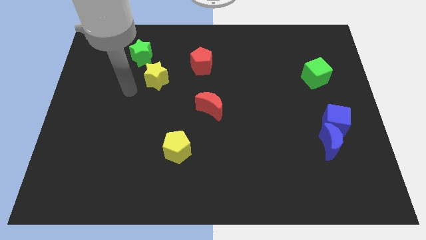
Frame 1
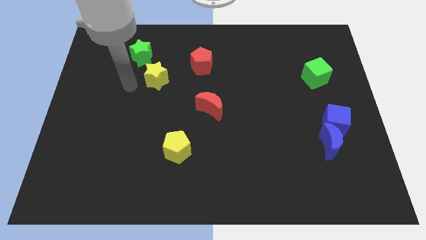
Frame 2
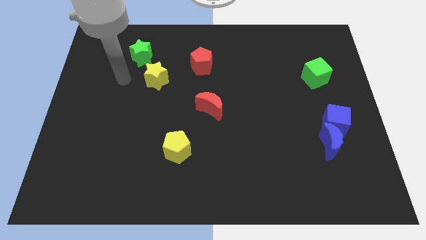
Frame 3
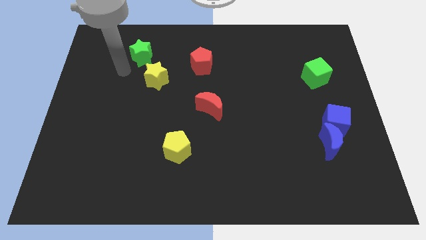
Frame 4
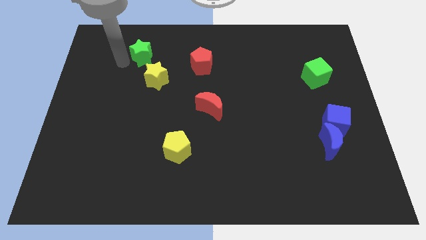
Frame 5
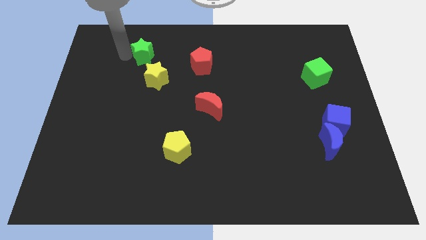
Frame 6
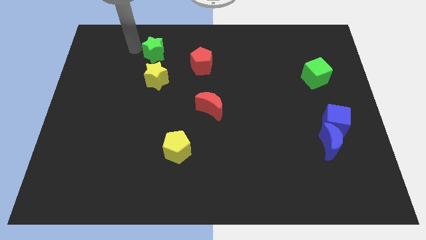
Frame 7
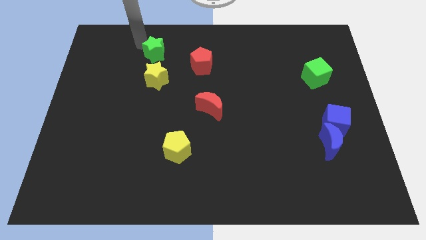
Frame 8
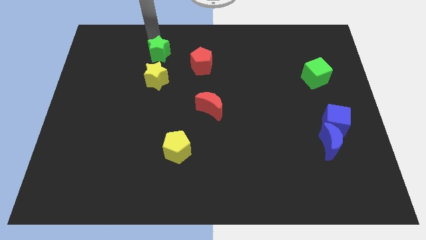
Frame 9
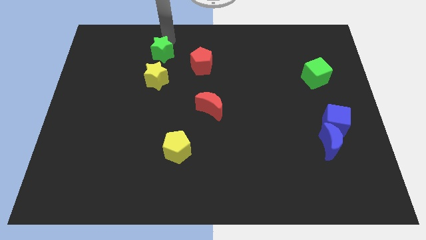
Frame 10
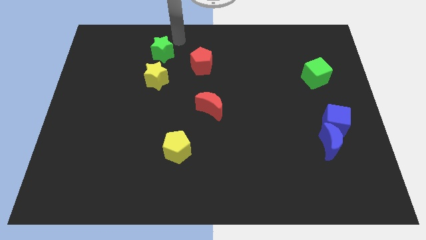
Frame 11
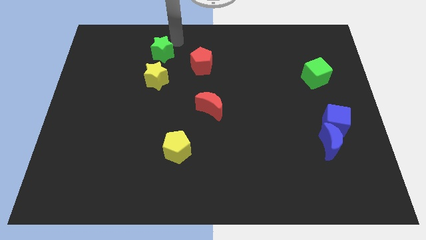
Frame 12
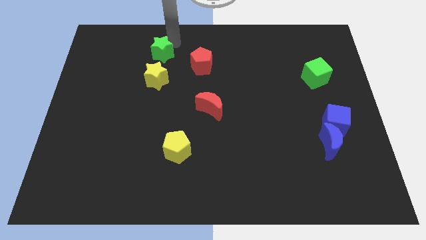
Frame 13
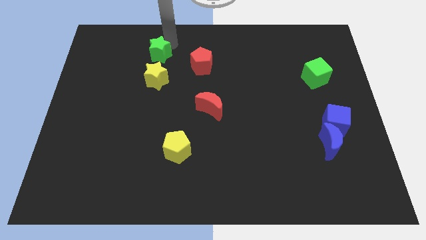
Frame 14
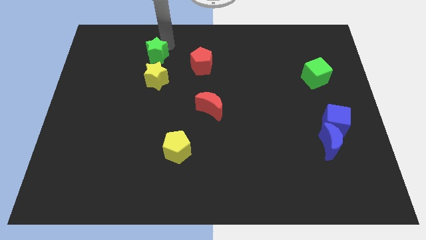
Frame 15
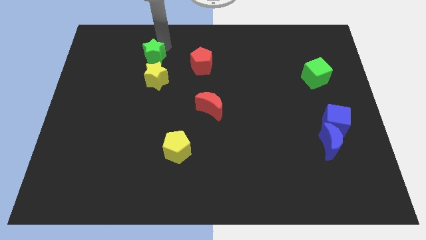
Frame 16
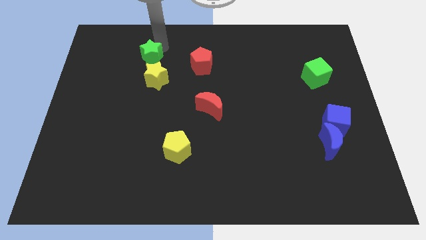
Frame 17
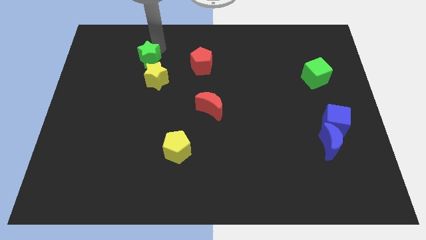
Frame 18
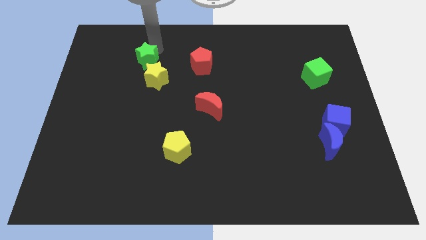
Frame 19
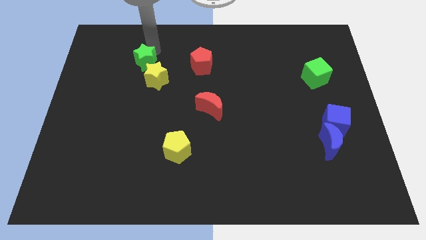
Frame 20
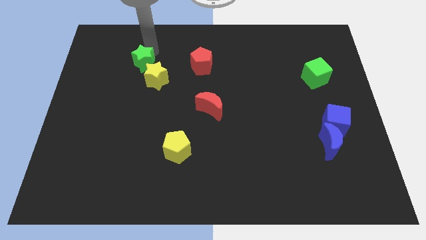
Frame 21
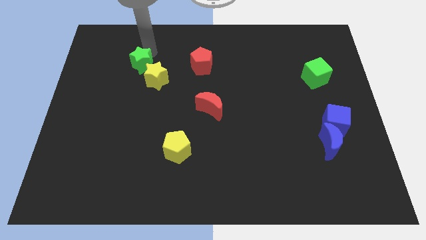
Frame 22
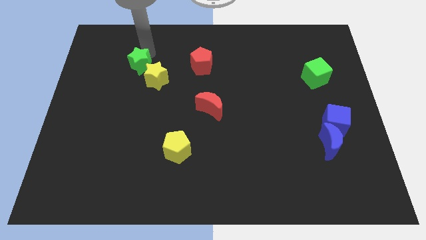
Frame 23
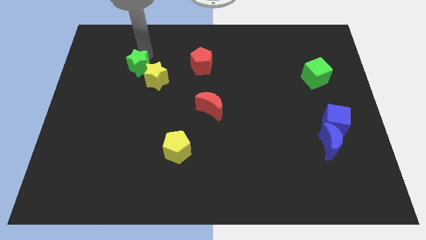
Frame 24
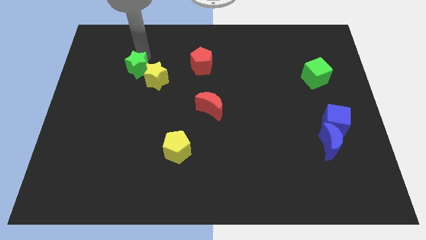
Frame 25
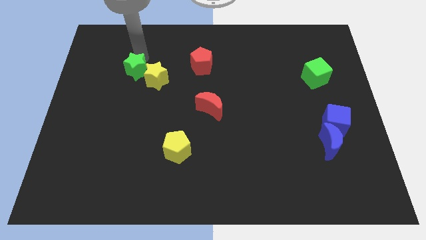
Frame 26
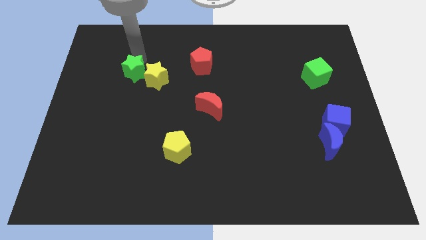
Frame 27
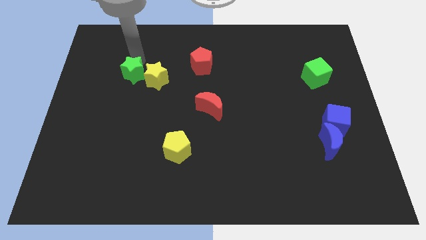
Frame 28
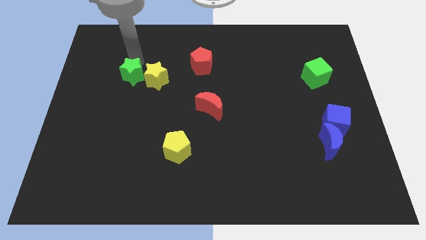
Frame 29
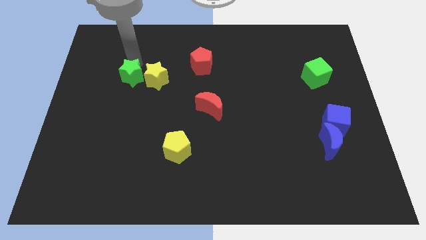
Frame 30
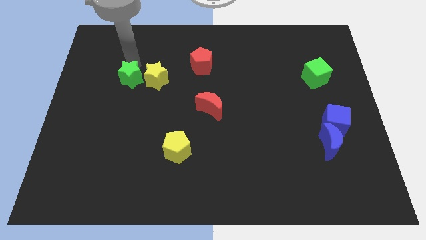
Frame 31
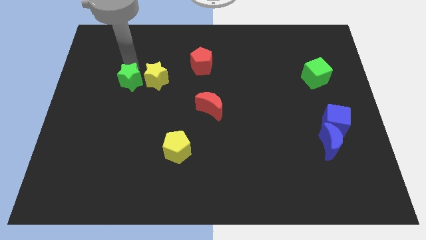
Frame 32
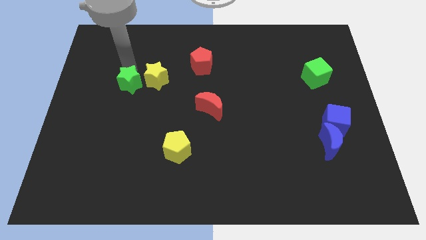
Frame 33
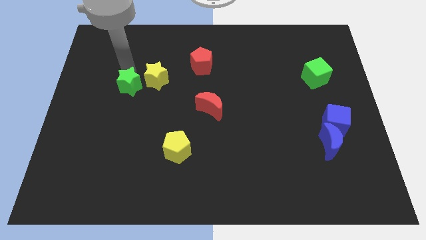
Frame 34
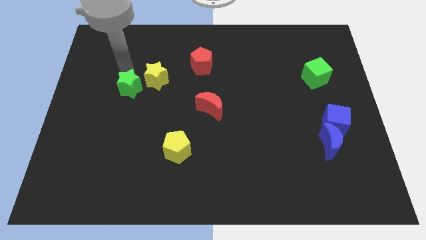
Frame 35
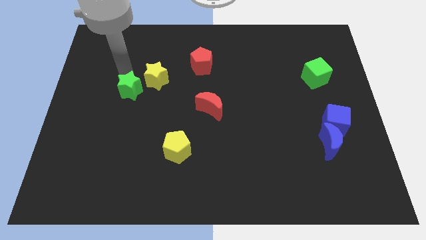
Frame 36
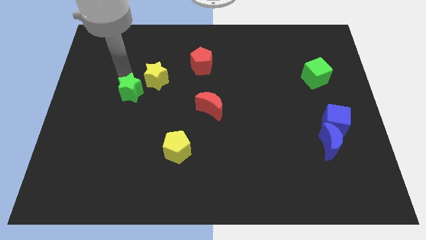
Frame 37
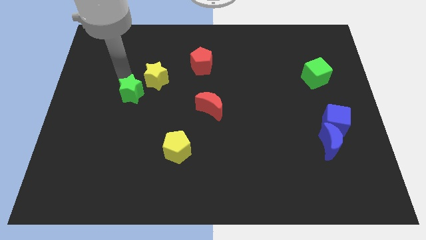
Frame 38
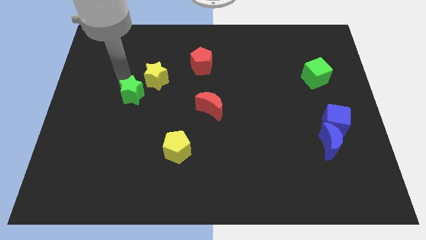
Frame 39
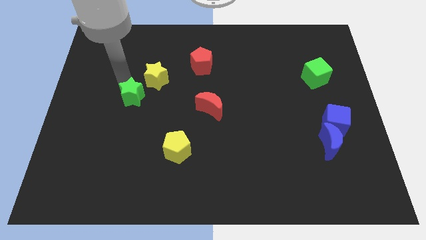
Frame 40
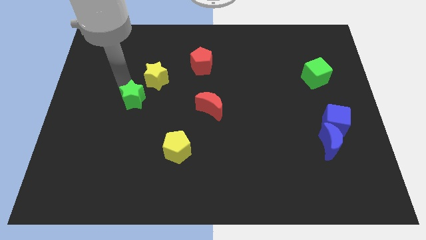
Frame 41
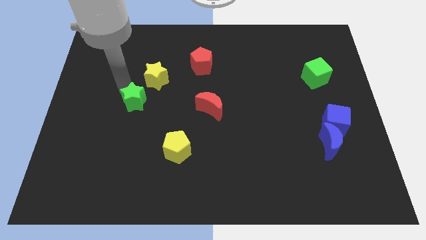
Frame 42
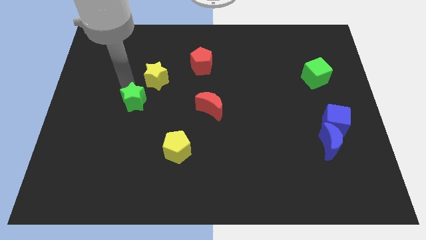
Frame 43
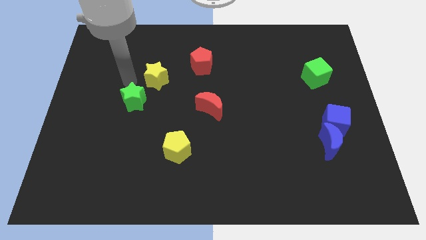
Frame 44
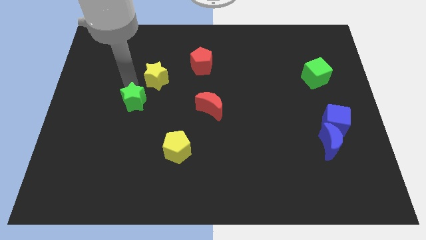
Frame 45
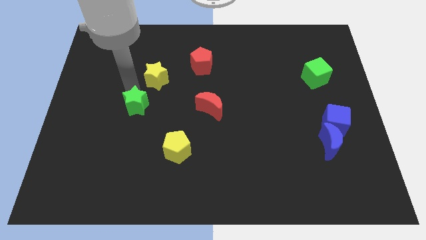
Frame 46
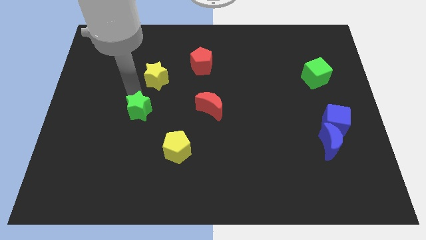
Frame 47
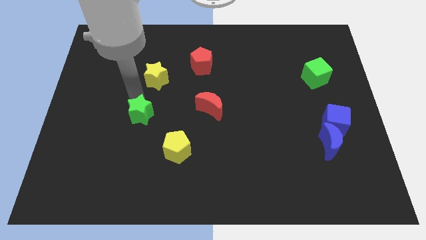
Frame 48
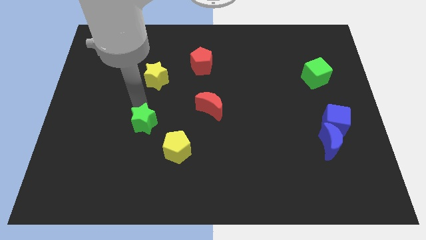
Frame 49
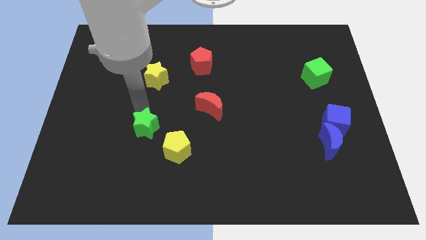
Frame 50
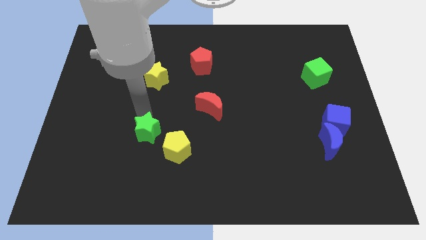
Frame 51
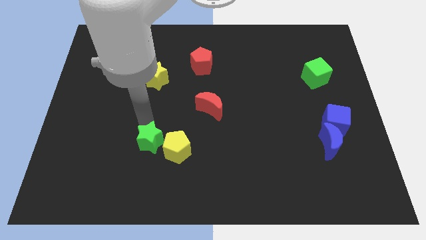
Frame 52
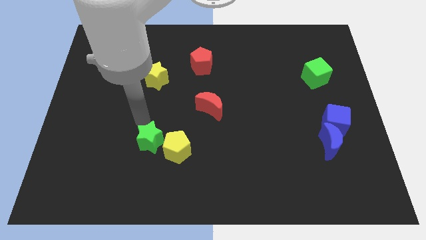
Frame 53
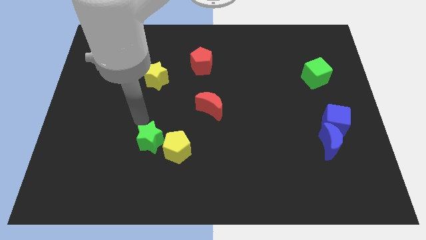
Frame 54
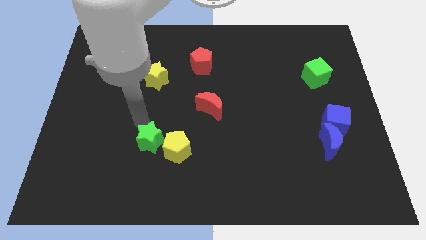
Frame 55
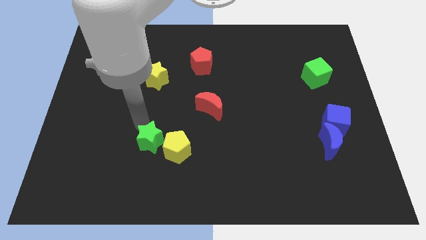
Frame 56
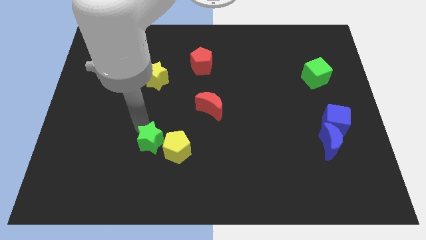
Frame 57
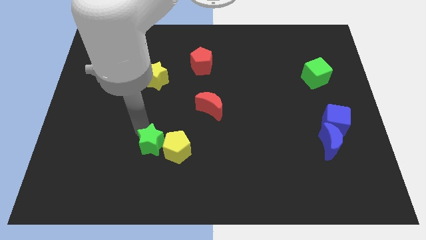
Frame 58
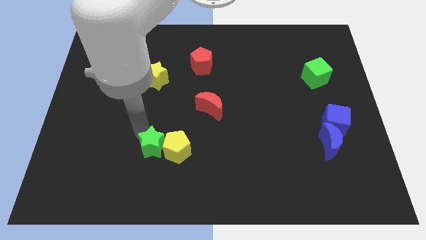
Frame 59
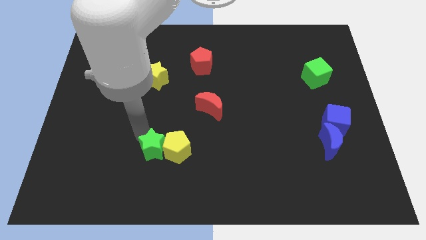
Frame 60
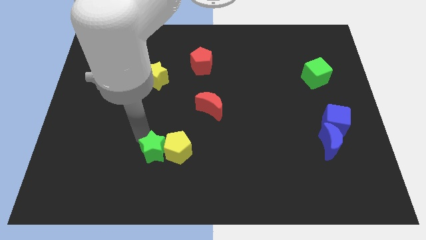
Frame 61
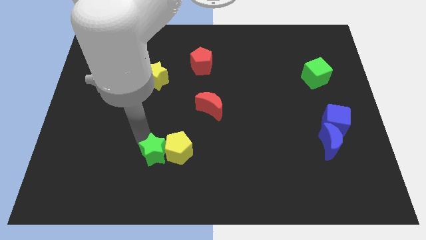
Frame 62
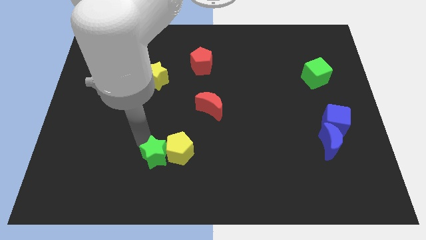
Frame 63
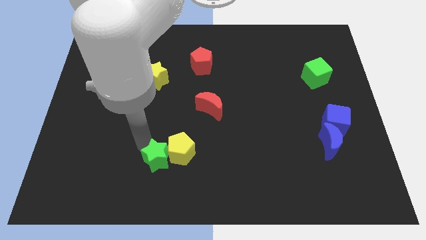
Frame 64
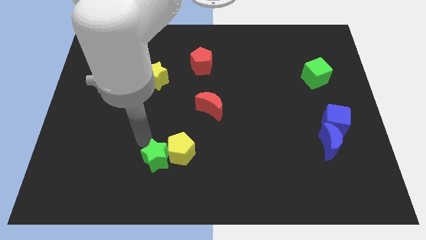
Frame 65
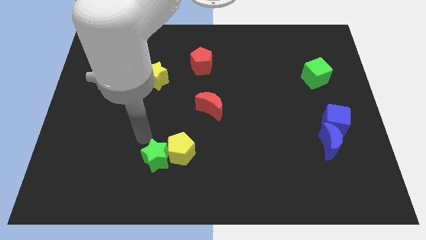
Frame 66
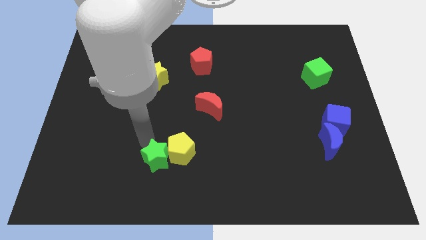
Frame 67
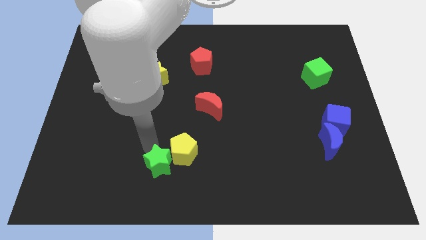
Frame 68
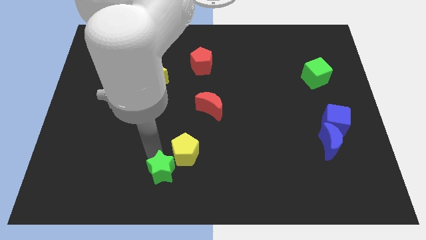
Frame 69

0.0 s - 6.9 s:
push the green star to the bottom
